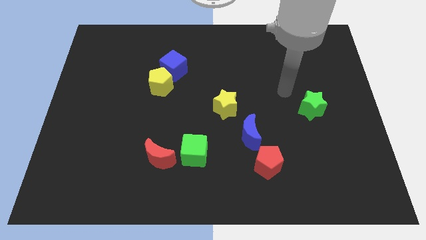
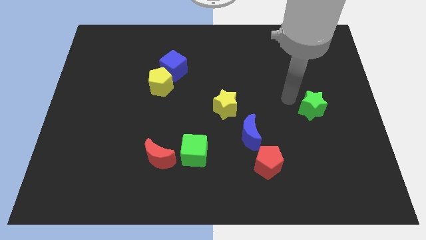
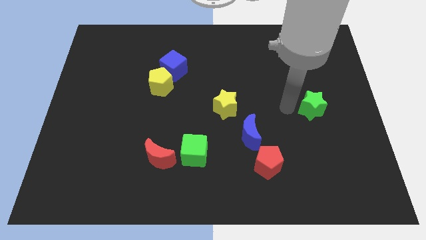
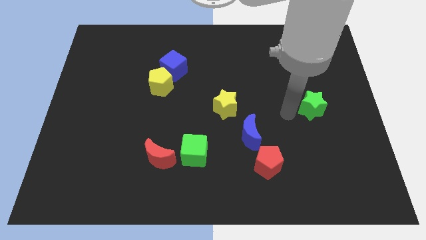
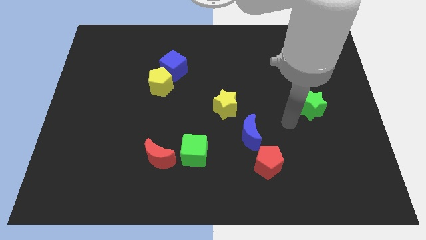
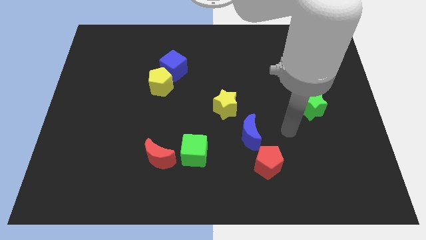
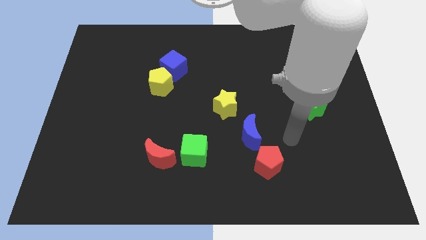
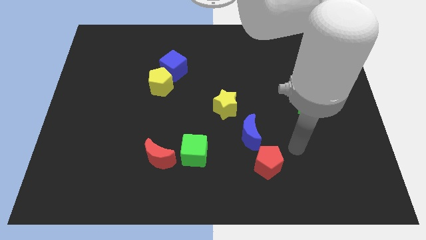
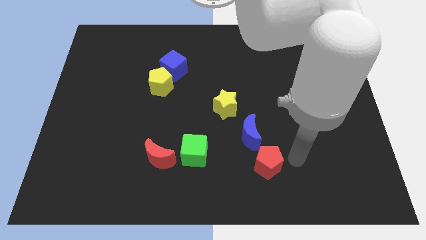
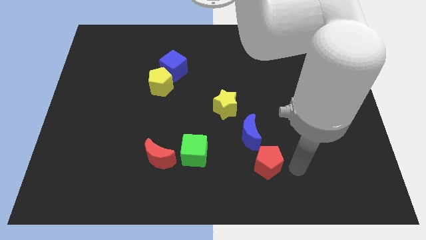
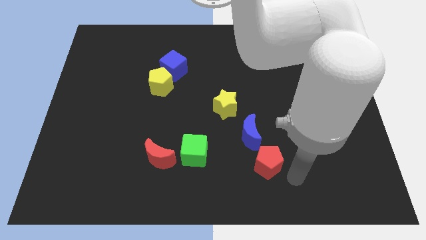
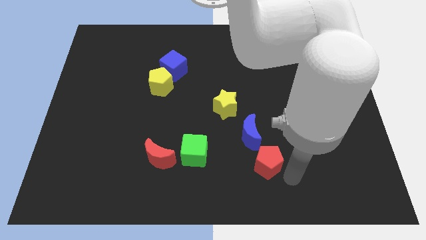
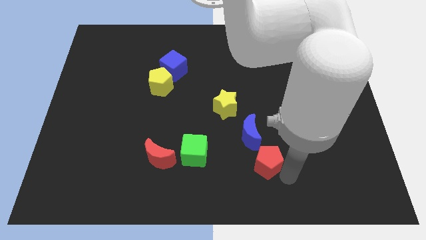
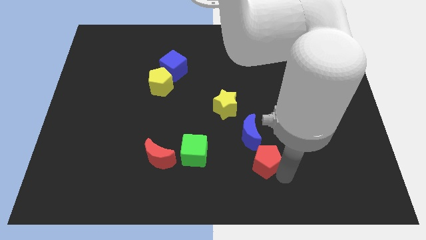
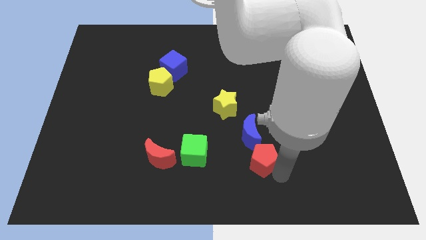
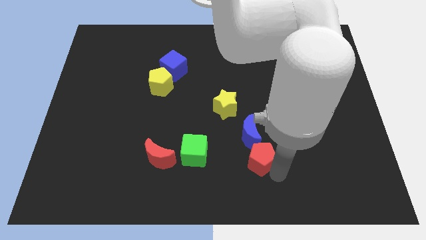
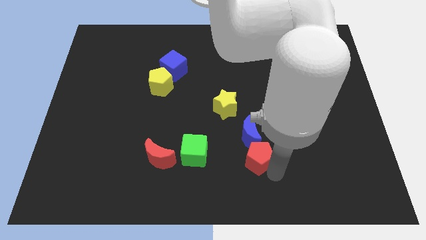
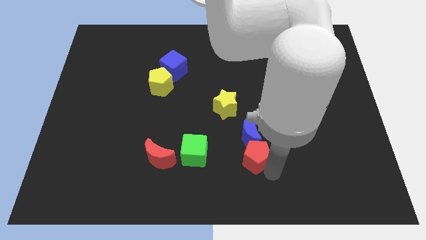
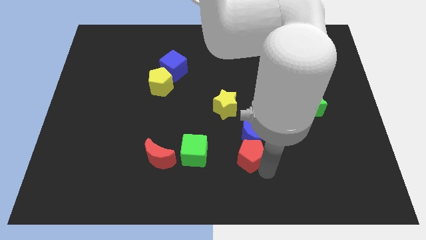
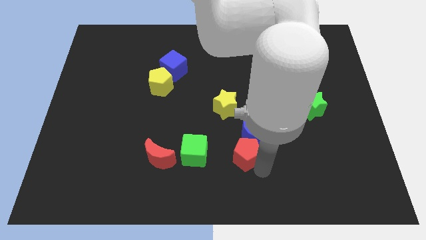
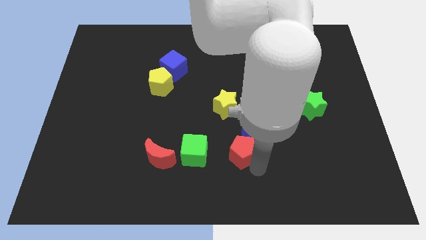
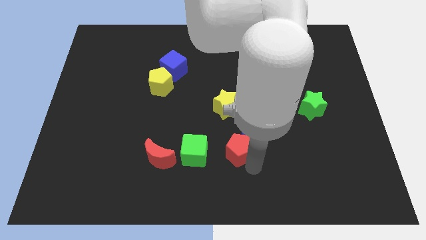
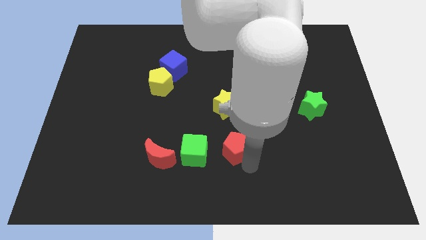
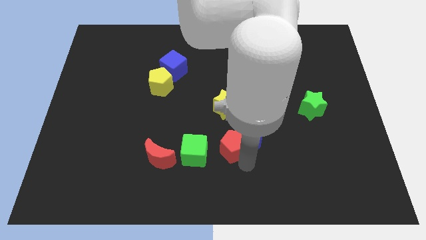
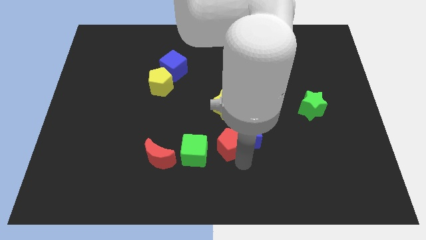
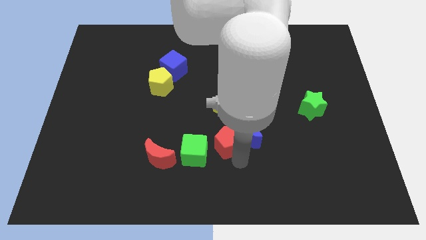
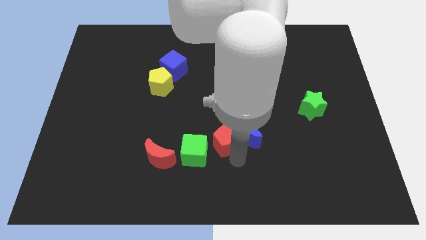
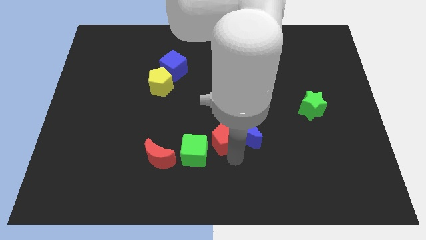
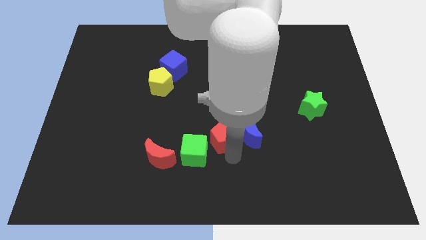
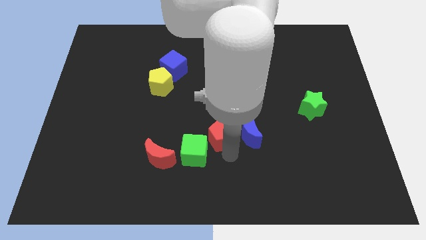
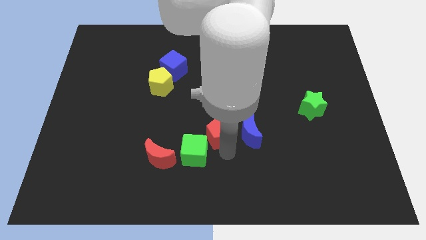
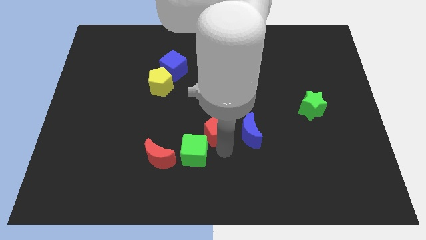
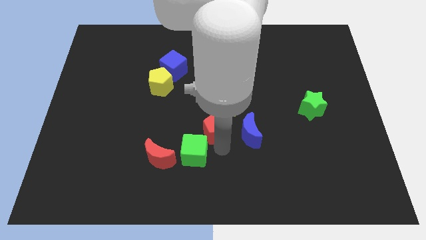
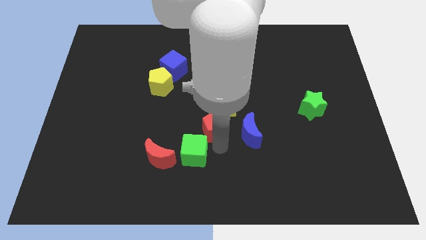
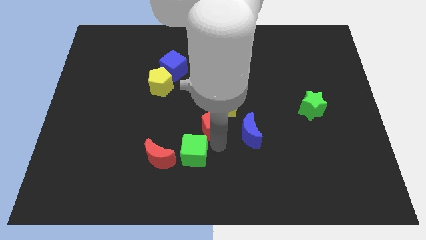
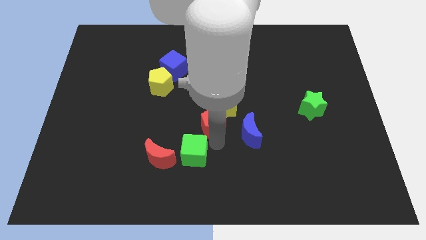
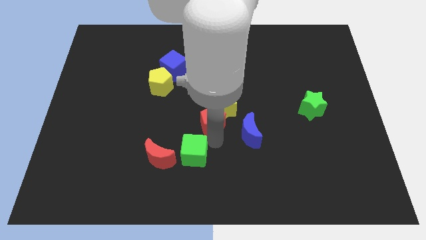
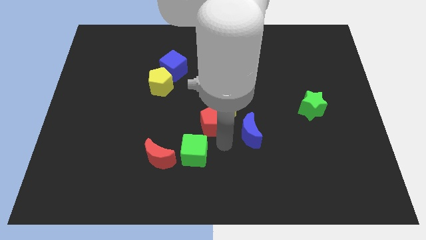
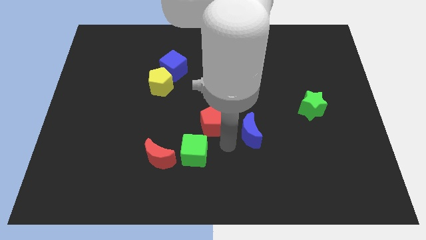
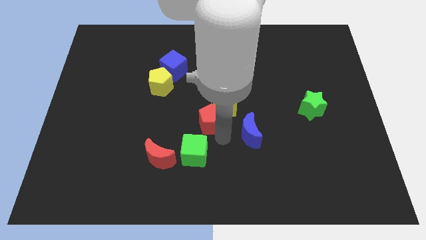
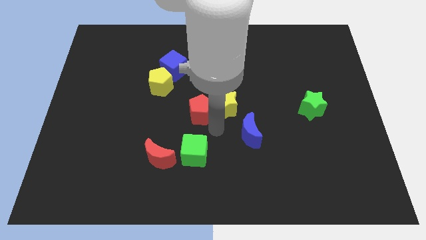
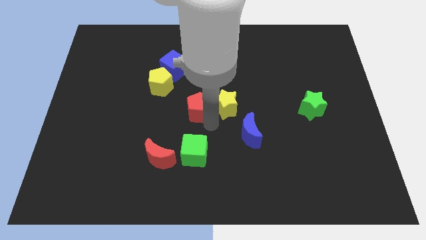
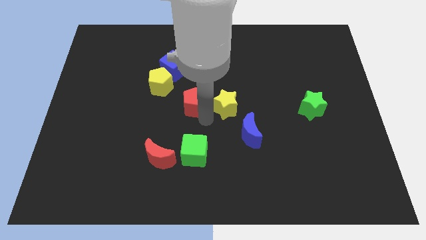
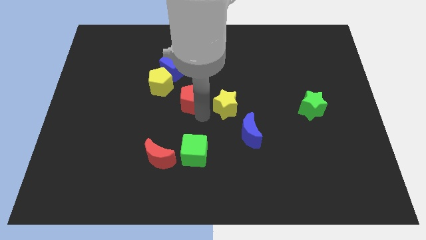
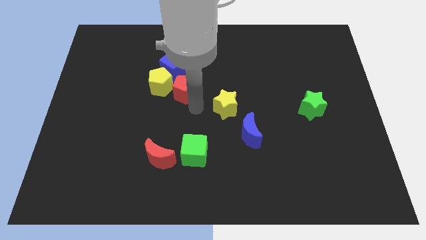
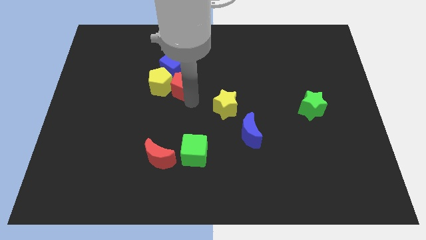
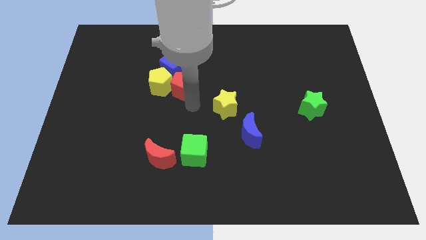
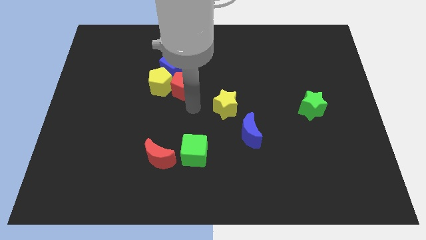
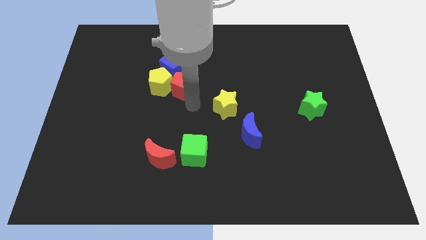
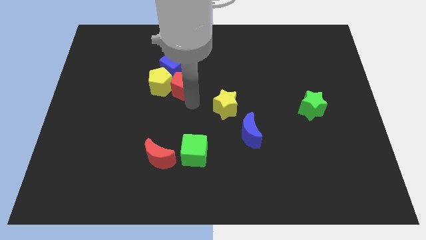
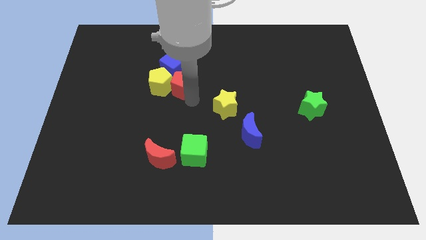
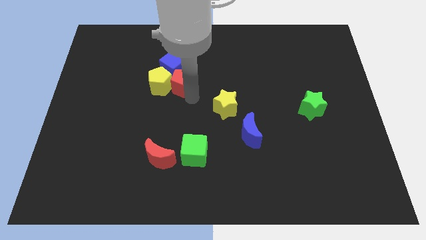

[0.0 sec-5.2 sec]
put the red pentagon next to the blue cube

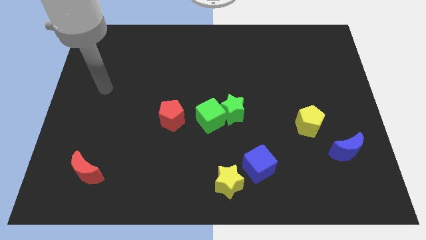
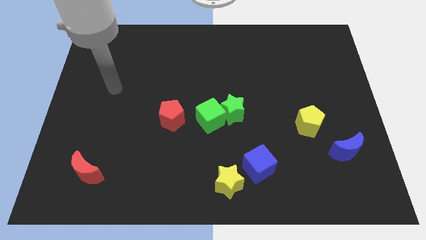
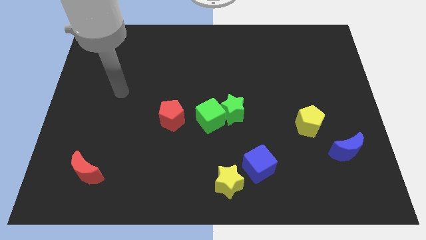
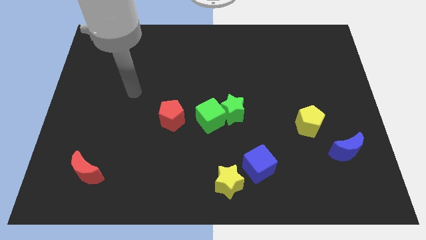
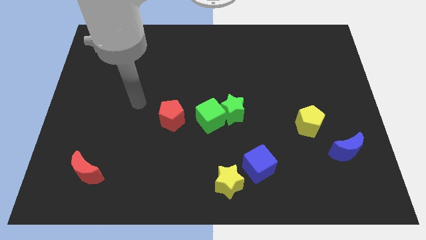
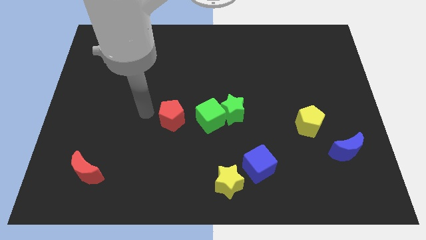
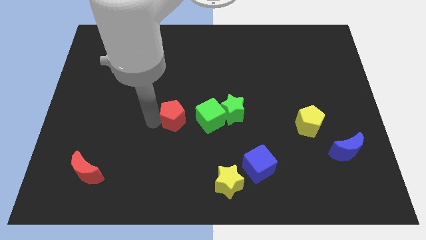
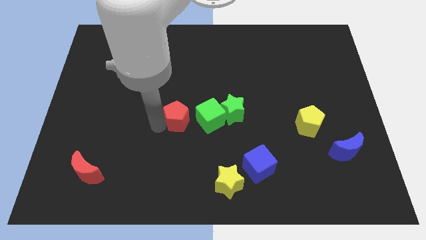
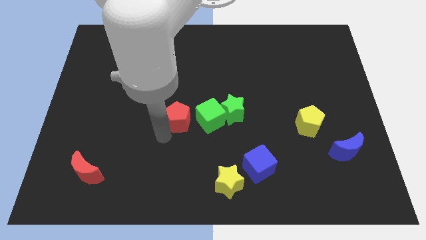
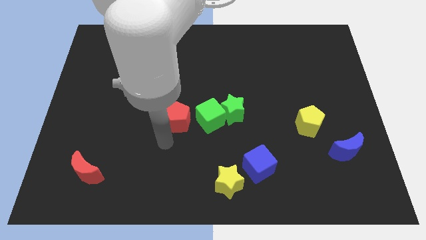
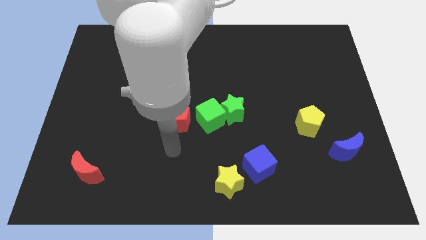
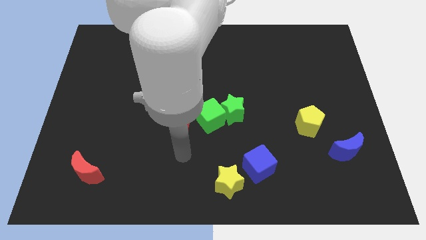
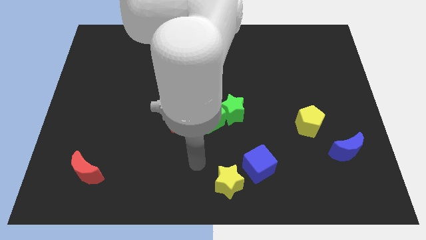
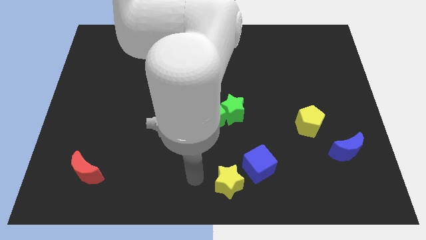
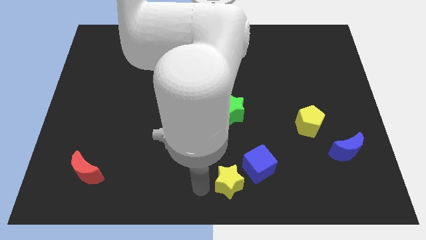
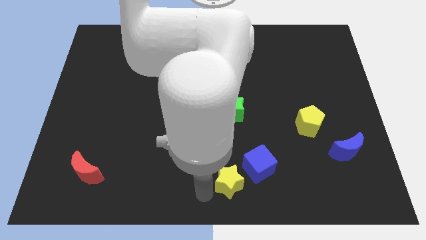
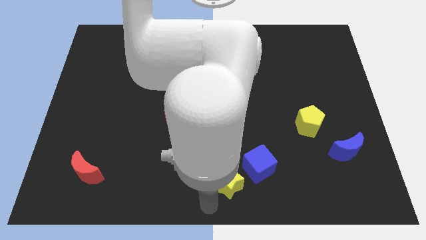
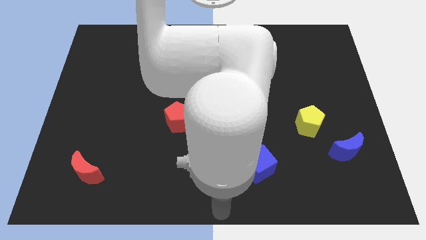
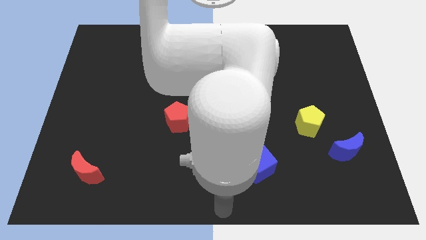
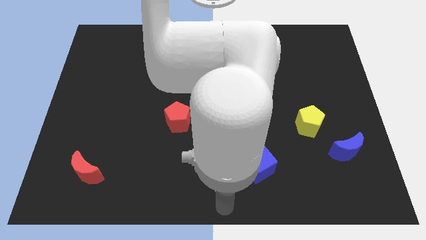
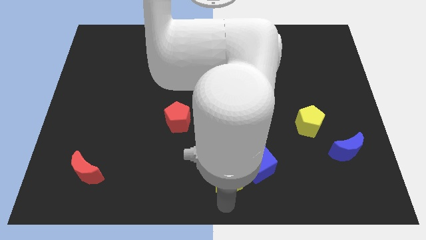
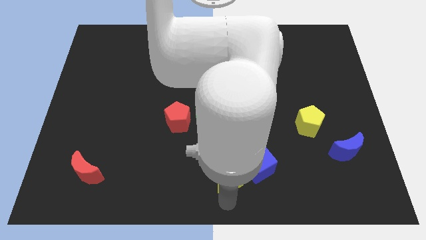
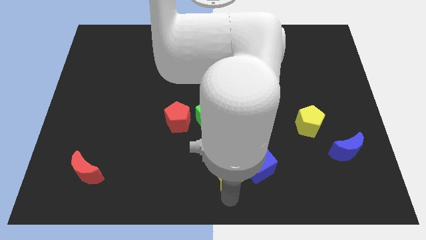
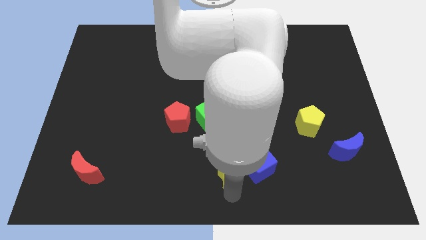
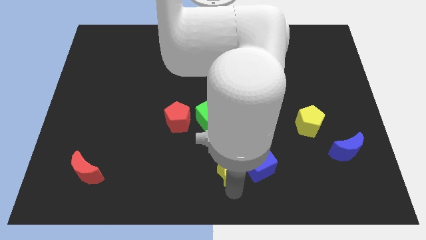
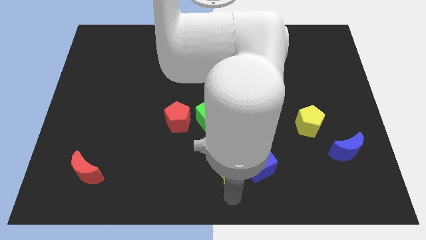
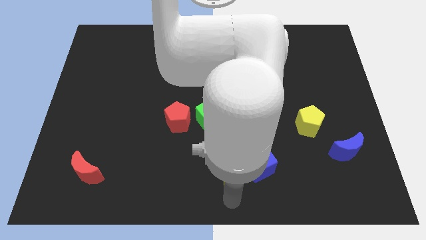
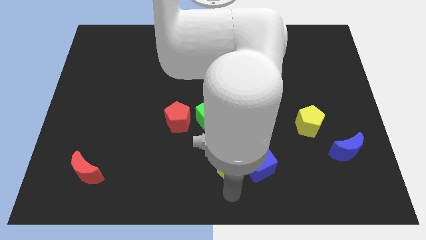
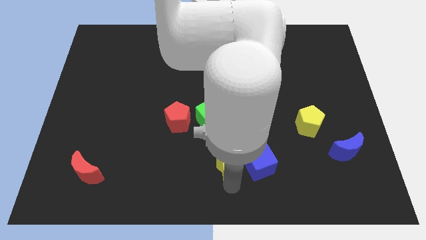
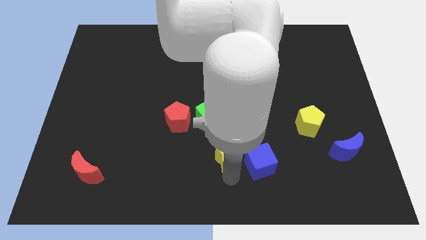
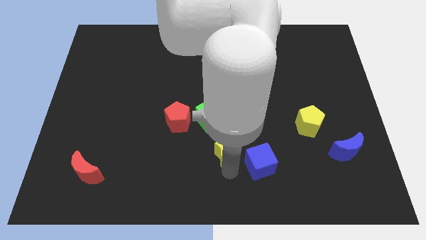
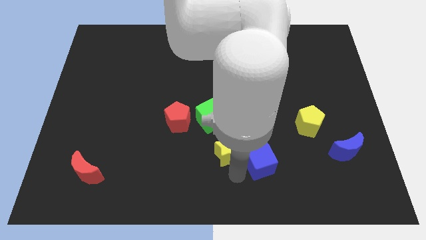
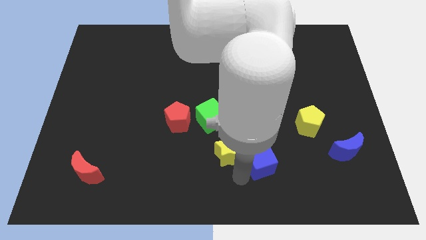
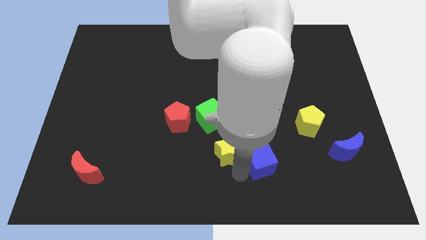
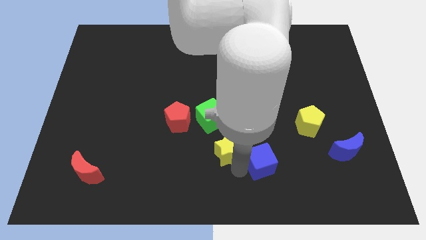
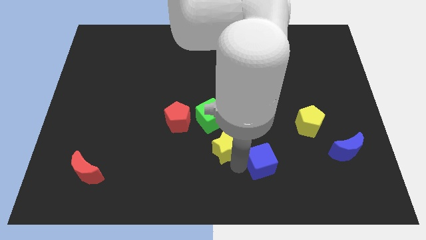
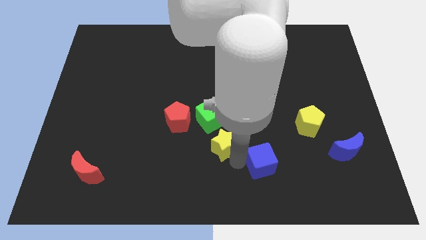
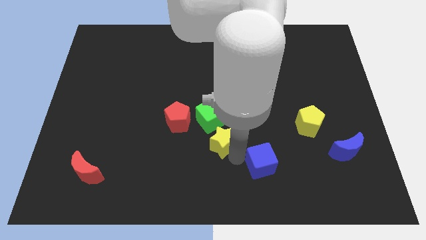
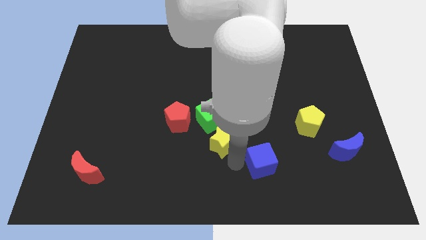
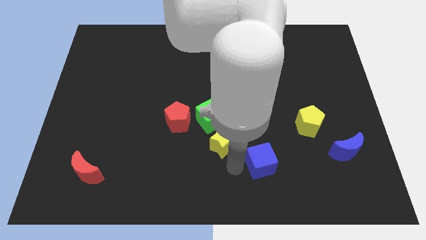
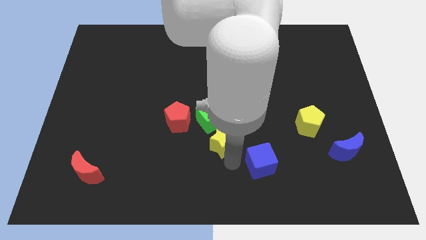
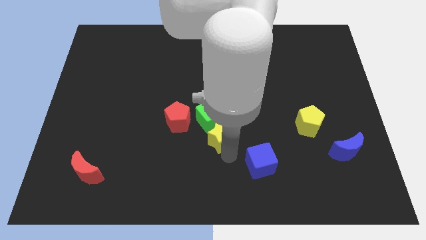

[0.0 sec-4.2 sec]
put the yellow star towards the green cube
